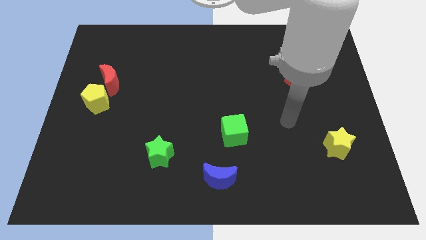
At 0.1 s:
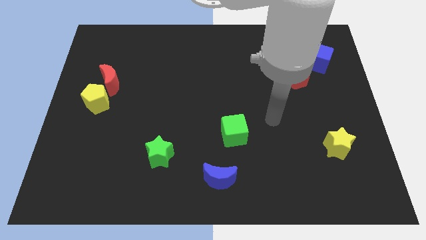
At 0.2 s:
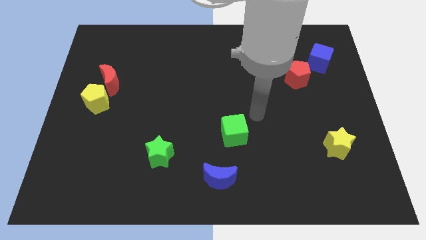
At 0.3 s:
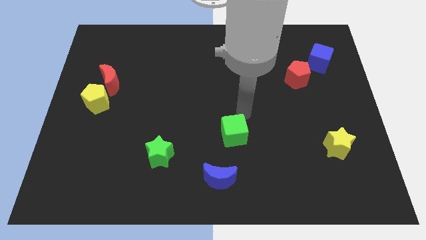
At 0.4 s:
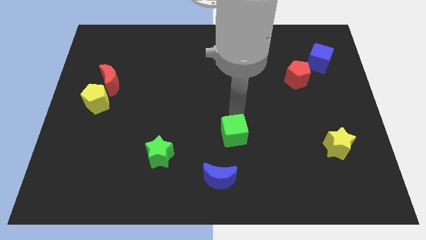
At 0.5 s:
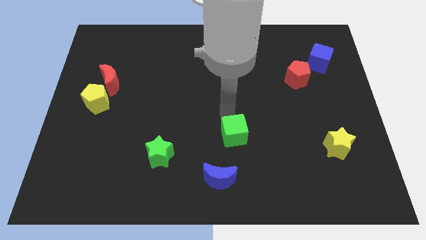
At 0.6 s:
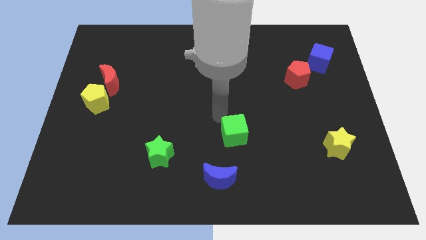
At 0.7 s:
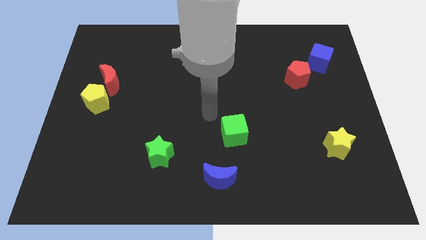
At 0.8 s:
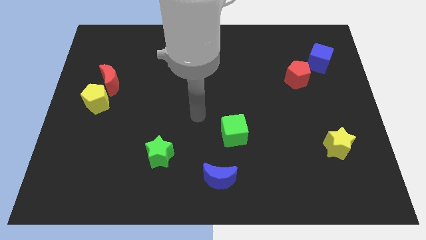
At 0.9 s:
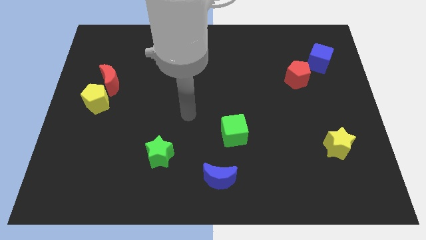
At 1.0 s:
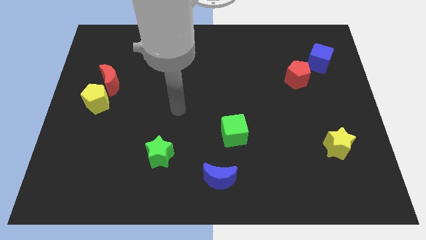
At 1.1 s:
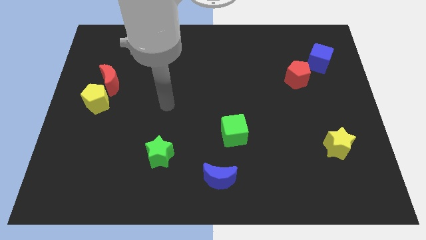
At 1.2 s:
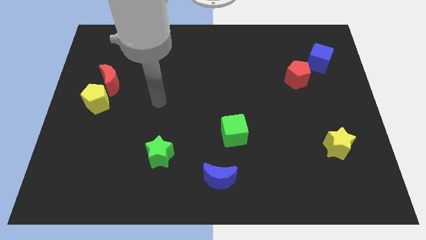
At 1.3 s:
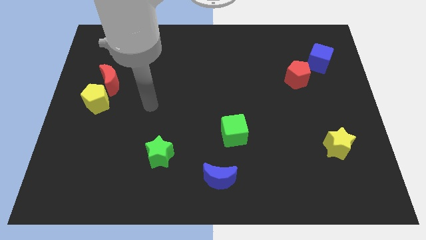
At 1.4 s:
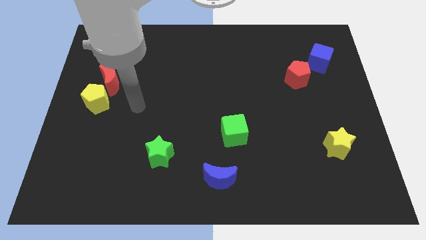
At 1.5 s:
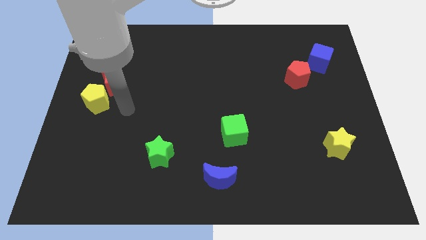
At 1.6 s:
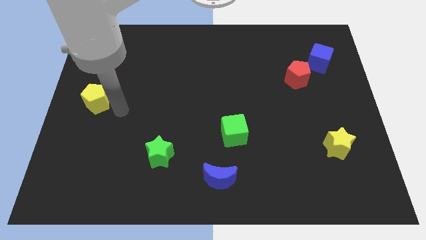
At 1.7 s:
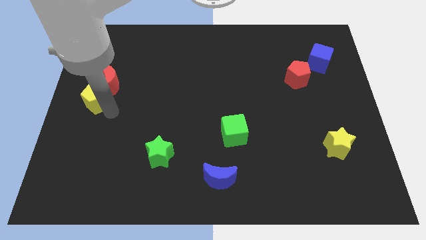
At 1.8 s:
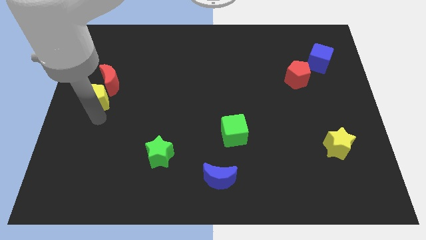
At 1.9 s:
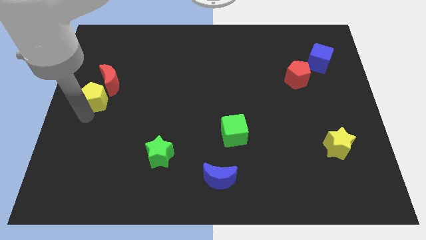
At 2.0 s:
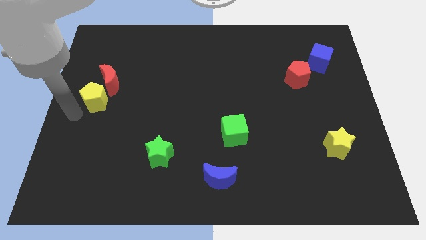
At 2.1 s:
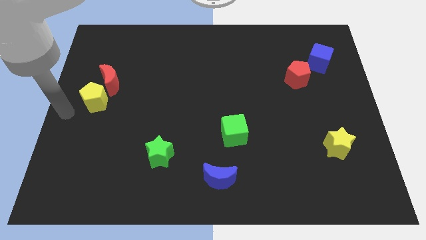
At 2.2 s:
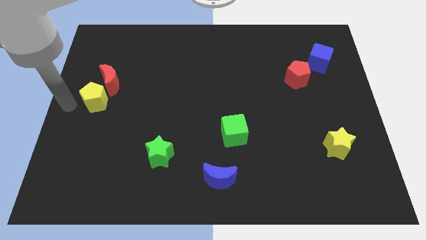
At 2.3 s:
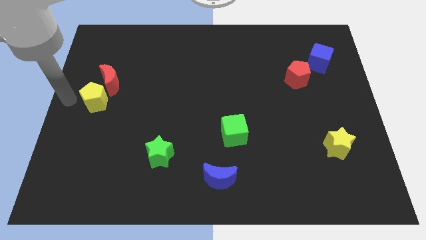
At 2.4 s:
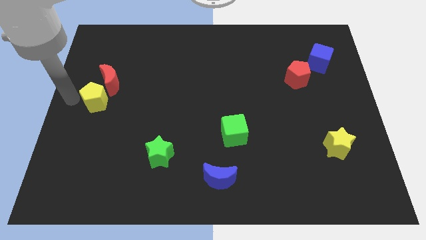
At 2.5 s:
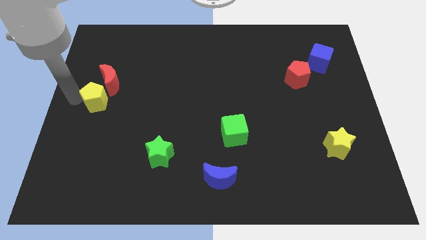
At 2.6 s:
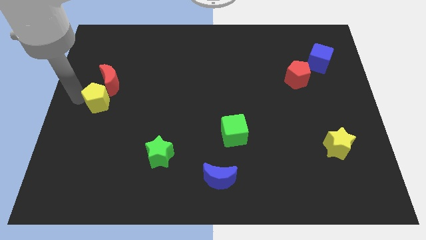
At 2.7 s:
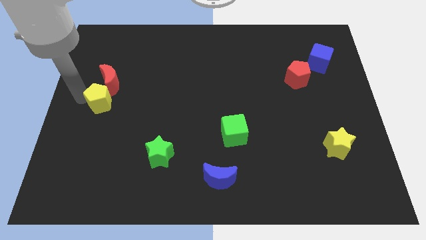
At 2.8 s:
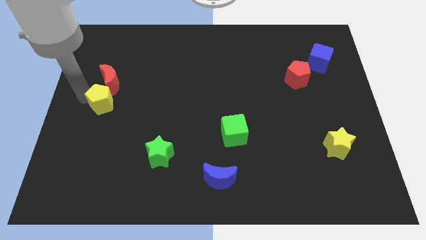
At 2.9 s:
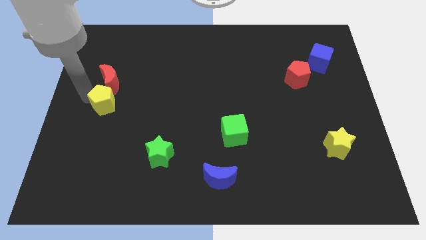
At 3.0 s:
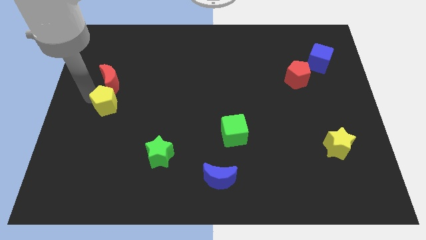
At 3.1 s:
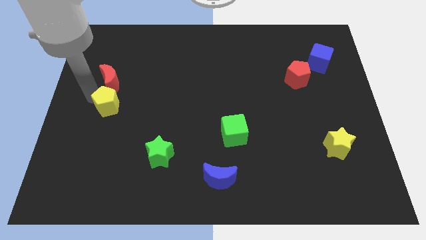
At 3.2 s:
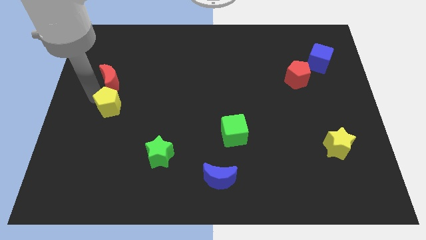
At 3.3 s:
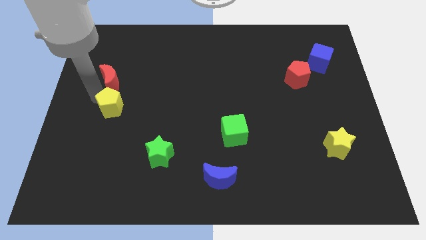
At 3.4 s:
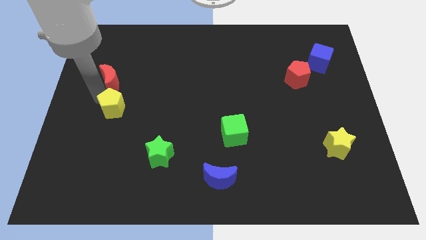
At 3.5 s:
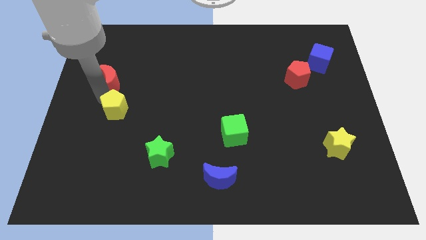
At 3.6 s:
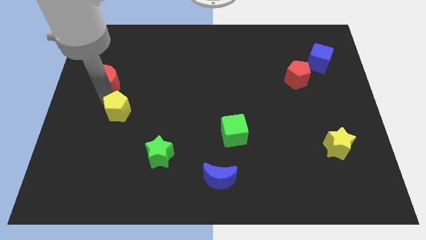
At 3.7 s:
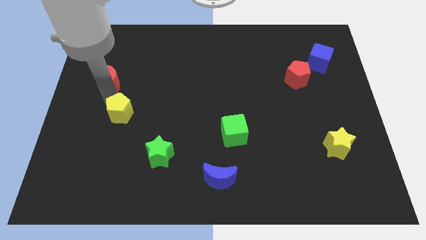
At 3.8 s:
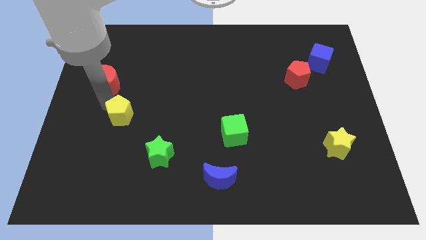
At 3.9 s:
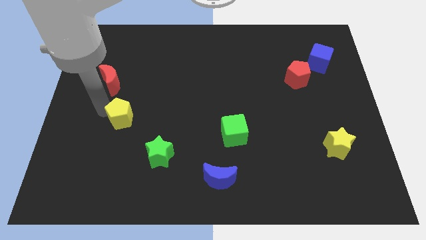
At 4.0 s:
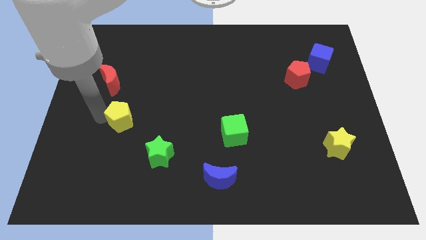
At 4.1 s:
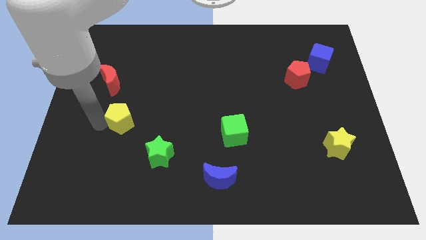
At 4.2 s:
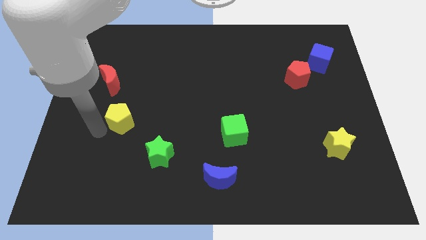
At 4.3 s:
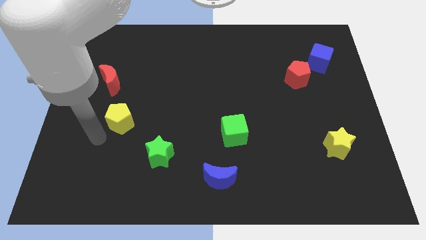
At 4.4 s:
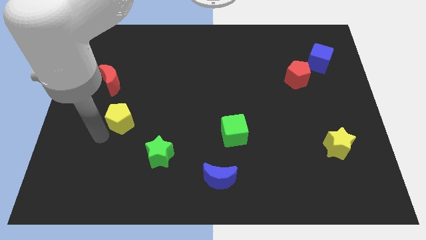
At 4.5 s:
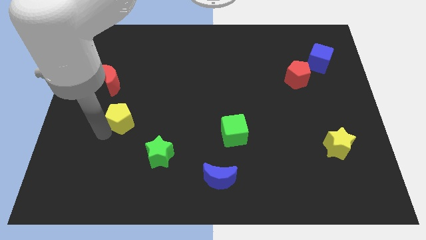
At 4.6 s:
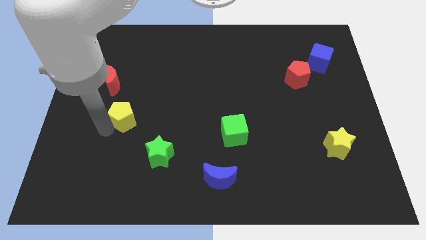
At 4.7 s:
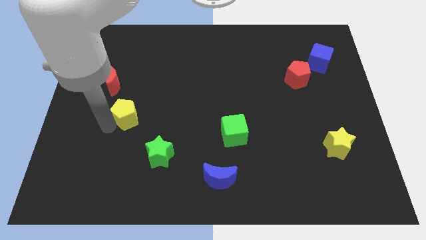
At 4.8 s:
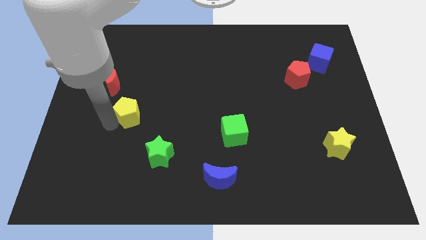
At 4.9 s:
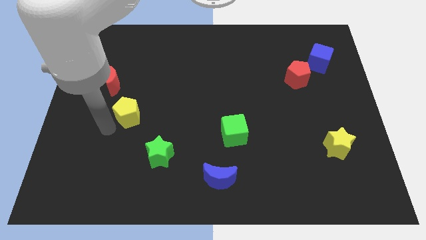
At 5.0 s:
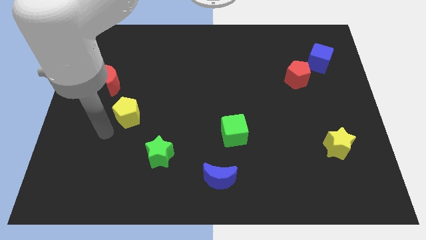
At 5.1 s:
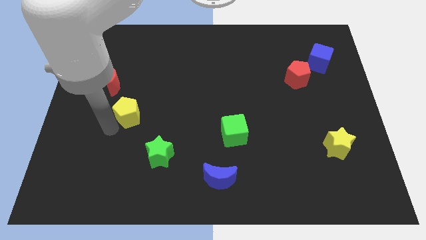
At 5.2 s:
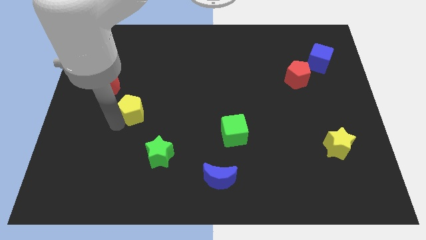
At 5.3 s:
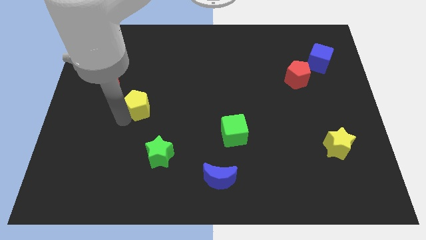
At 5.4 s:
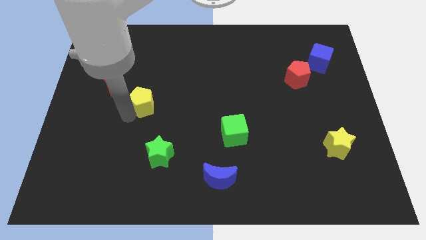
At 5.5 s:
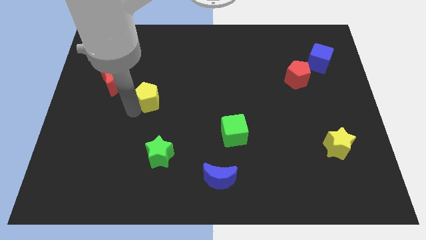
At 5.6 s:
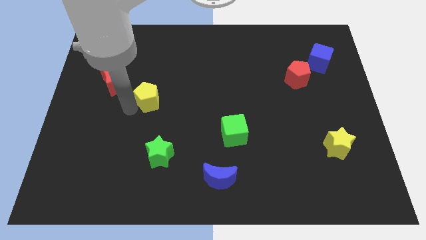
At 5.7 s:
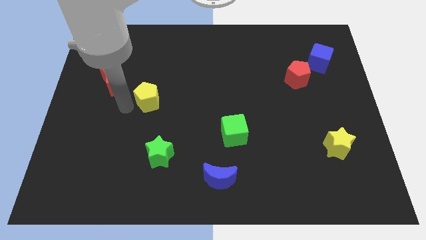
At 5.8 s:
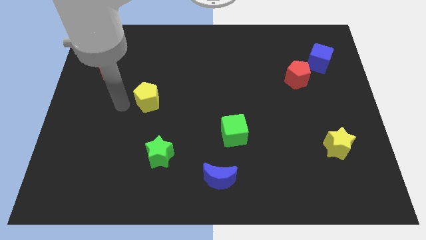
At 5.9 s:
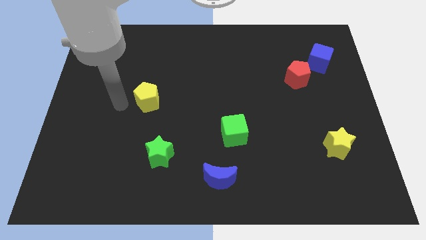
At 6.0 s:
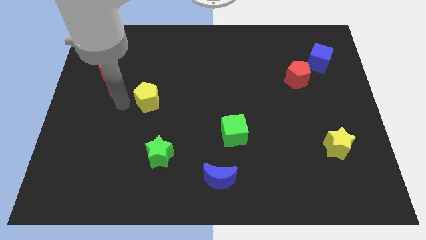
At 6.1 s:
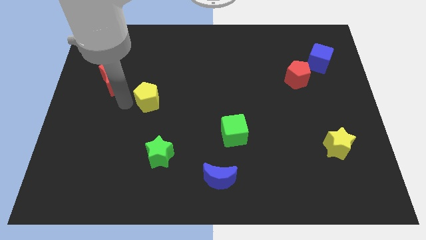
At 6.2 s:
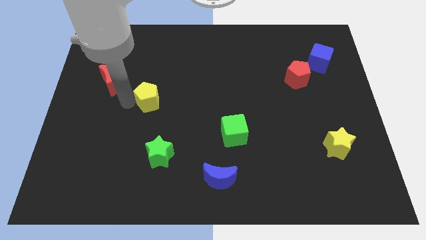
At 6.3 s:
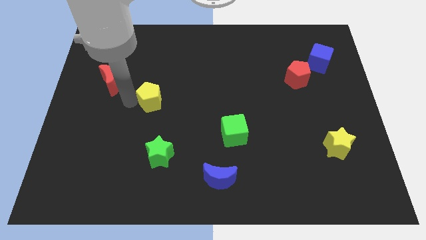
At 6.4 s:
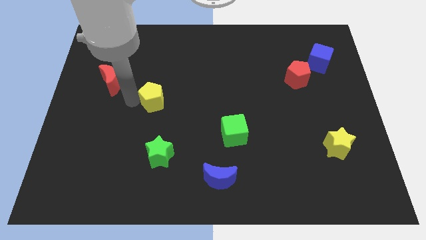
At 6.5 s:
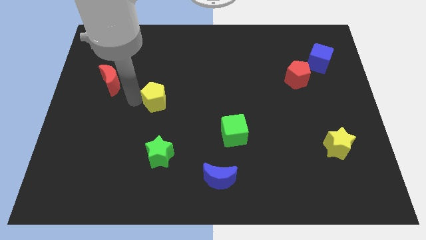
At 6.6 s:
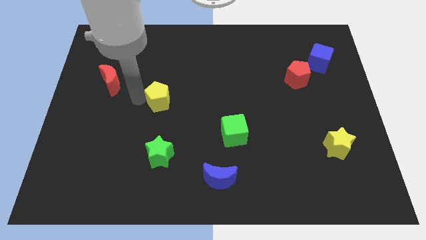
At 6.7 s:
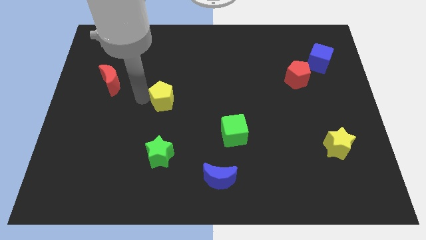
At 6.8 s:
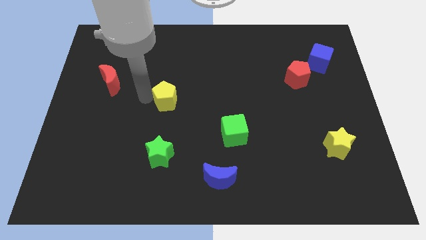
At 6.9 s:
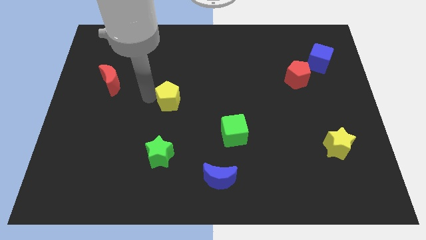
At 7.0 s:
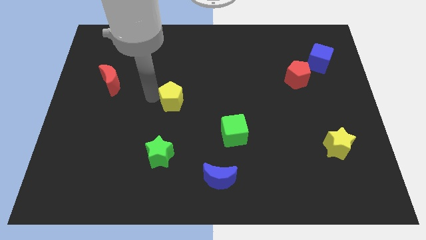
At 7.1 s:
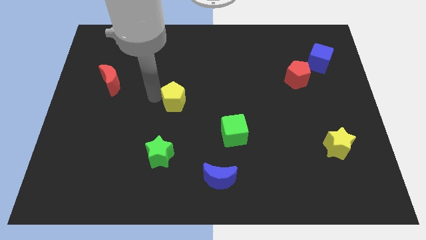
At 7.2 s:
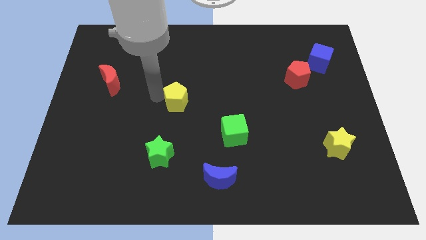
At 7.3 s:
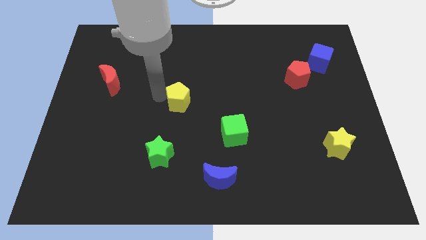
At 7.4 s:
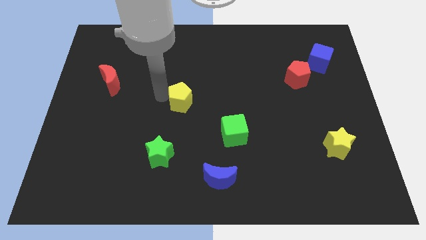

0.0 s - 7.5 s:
push the yellow pentagon to the right

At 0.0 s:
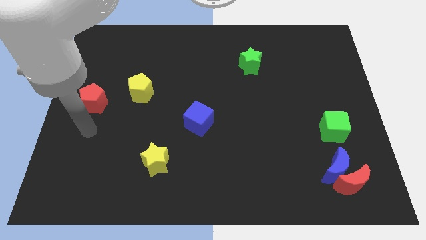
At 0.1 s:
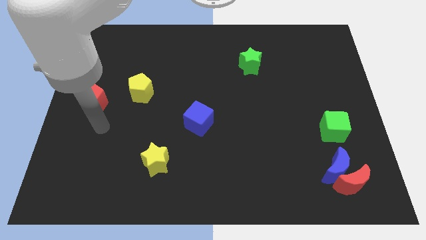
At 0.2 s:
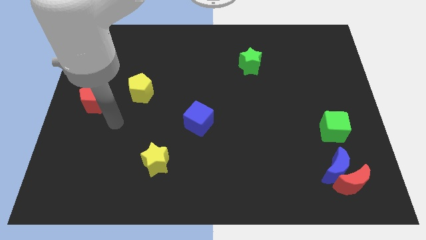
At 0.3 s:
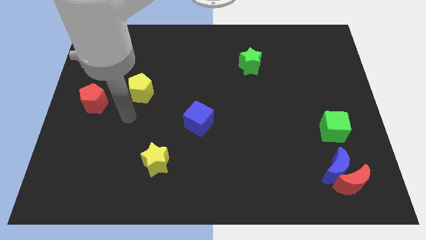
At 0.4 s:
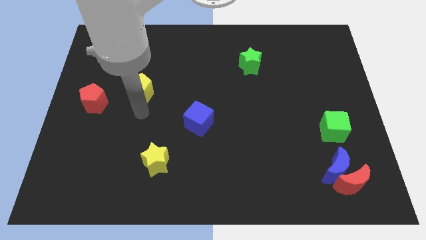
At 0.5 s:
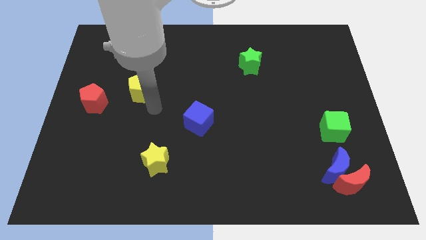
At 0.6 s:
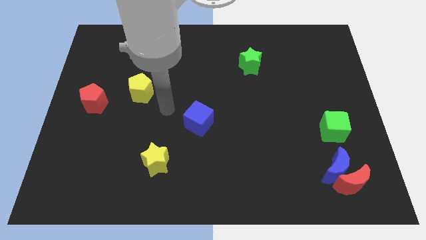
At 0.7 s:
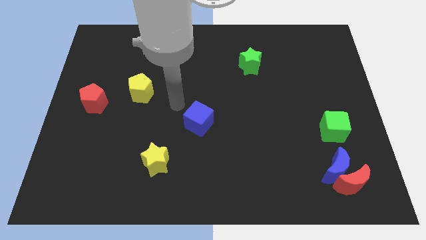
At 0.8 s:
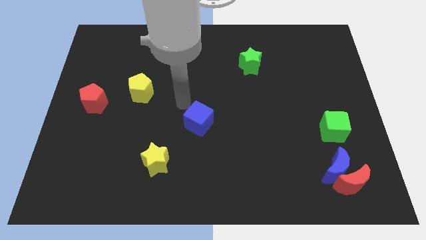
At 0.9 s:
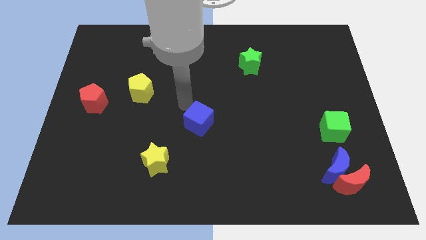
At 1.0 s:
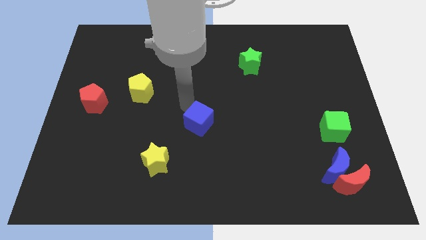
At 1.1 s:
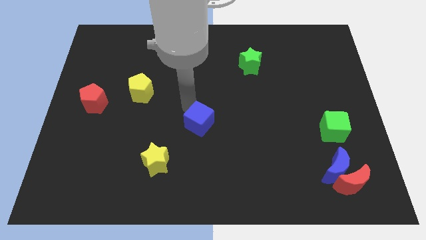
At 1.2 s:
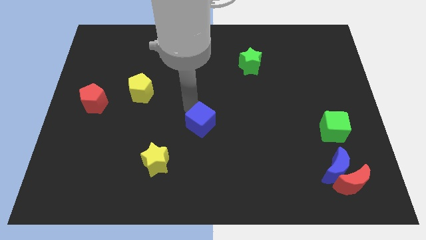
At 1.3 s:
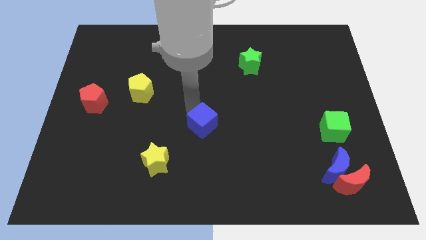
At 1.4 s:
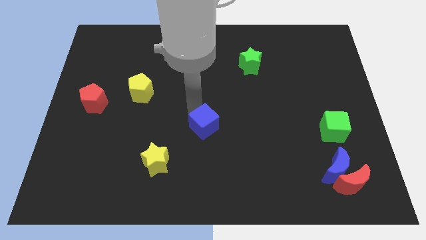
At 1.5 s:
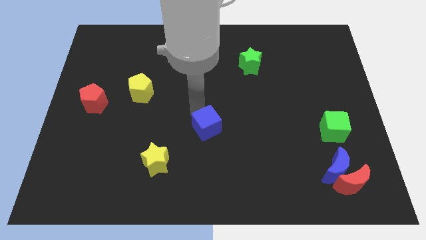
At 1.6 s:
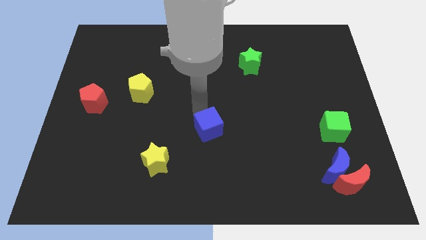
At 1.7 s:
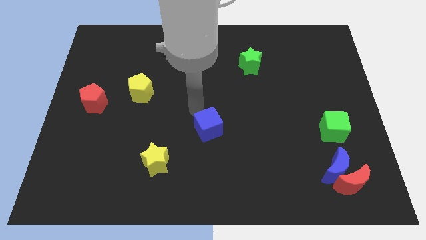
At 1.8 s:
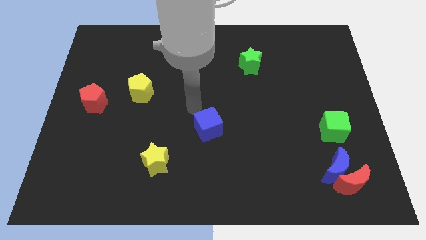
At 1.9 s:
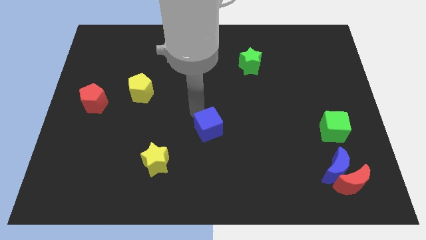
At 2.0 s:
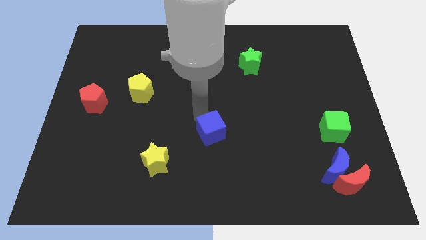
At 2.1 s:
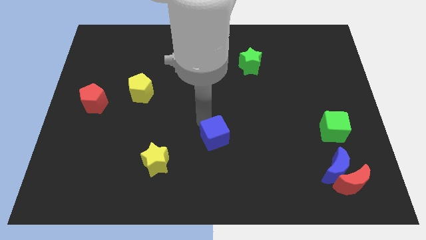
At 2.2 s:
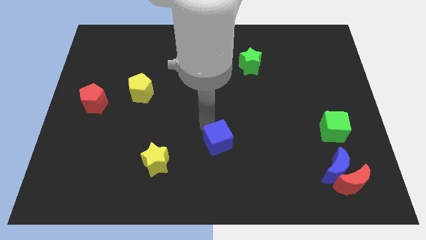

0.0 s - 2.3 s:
move the blue cube somewhat downwards and to the right
